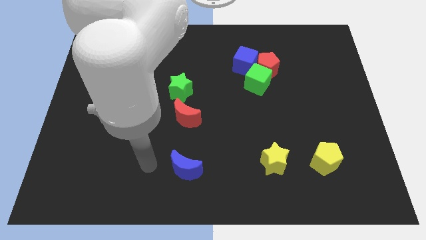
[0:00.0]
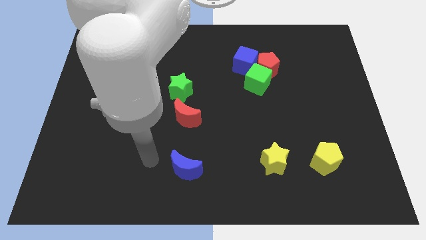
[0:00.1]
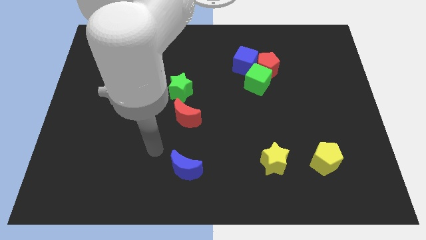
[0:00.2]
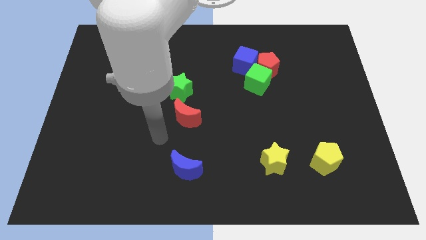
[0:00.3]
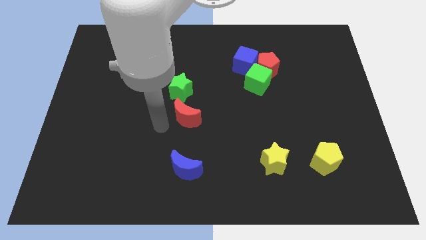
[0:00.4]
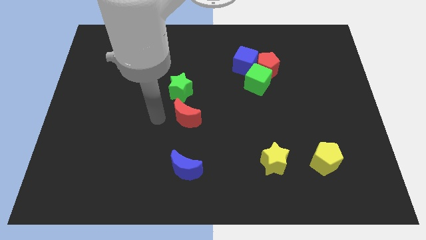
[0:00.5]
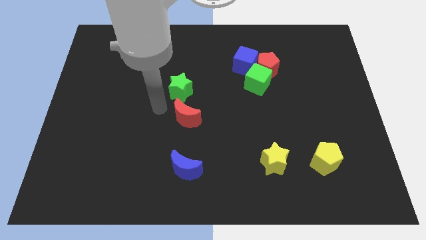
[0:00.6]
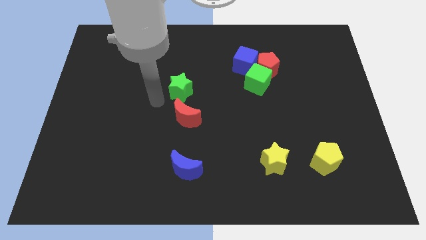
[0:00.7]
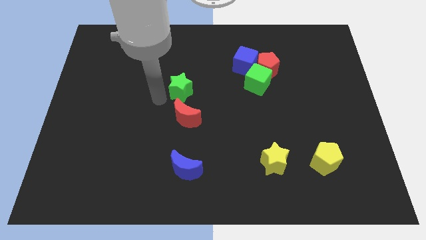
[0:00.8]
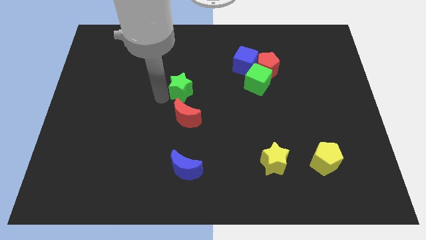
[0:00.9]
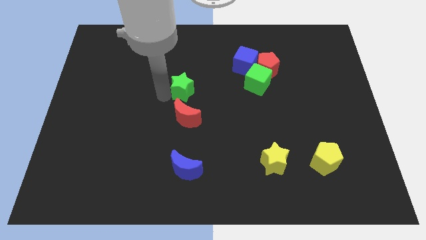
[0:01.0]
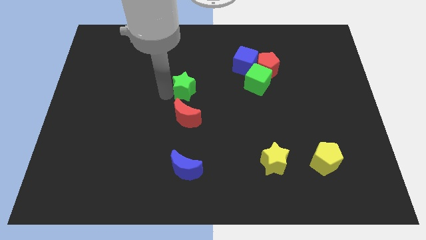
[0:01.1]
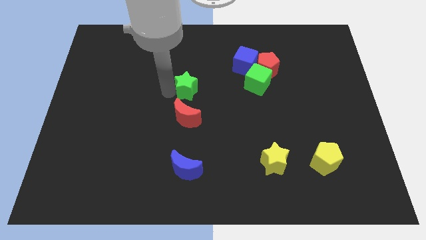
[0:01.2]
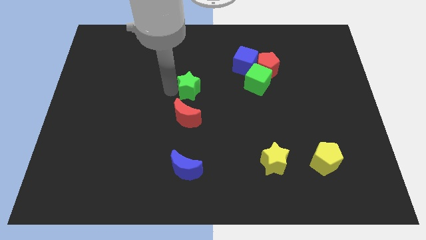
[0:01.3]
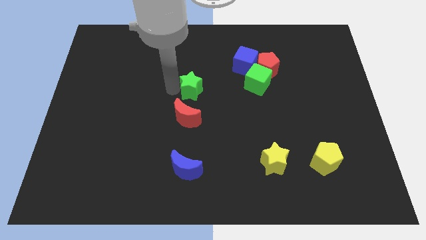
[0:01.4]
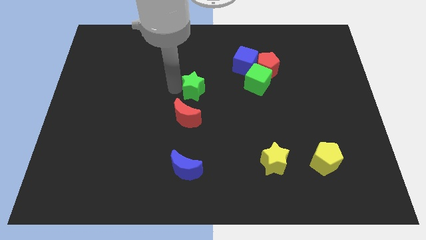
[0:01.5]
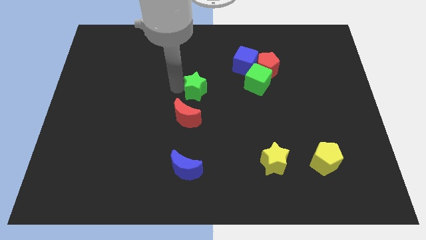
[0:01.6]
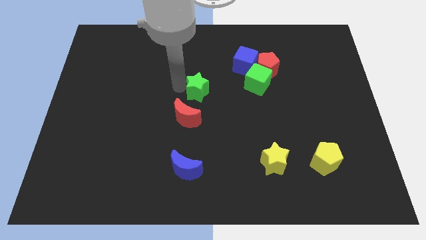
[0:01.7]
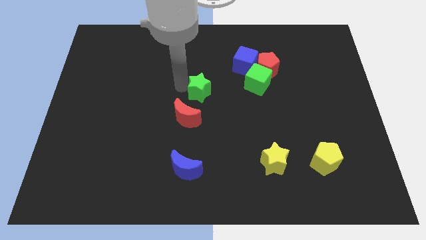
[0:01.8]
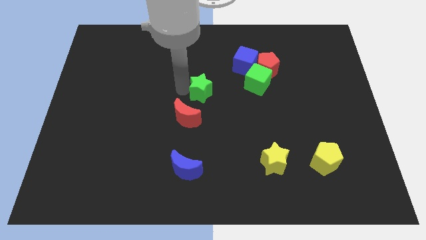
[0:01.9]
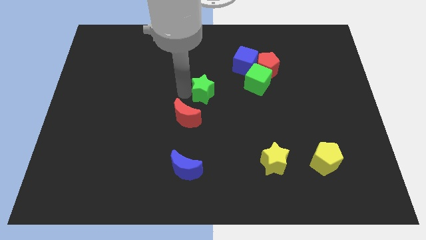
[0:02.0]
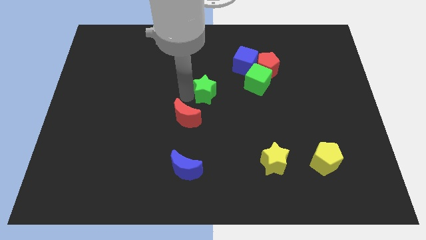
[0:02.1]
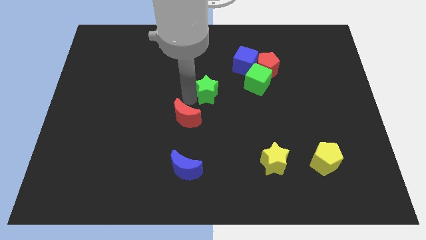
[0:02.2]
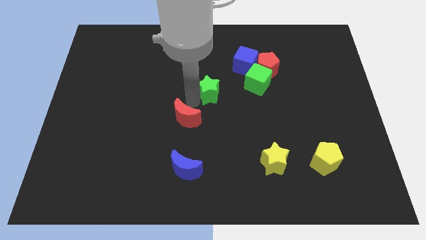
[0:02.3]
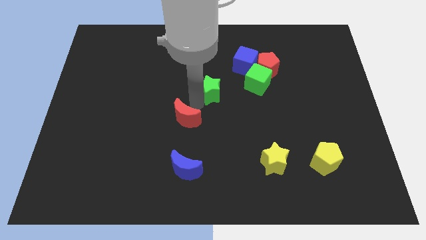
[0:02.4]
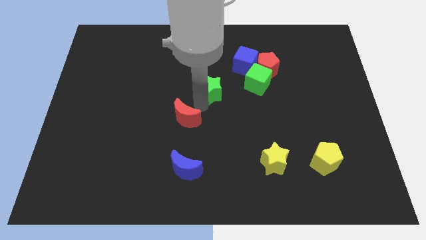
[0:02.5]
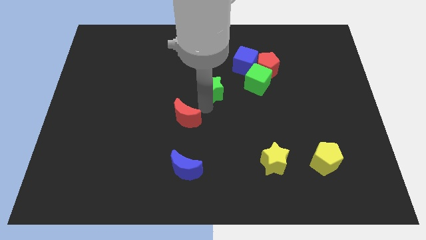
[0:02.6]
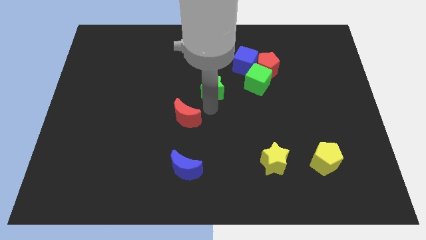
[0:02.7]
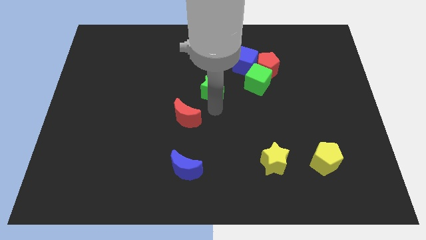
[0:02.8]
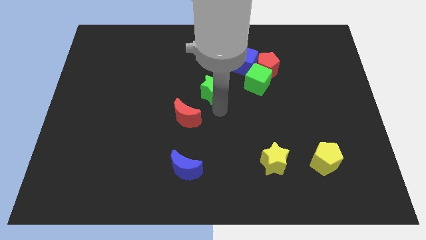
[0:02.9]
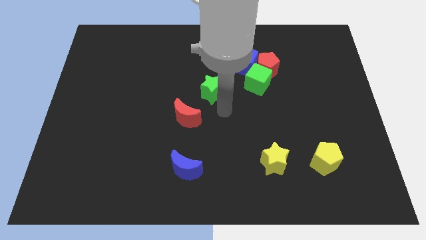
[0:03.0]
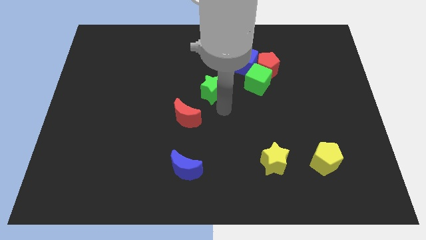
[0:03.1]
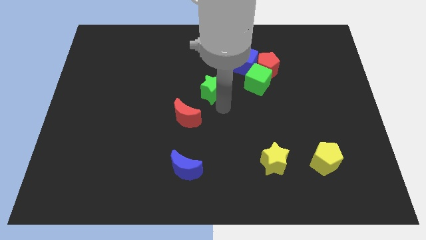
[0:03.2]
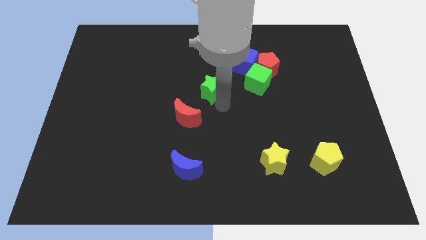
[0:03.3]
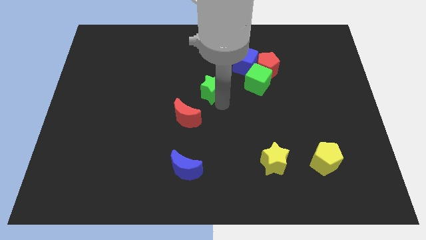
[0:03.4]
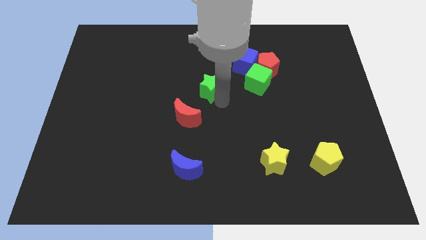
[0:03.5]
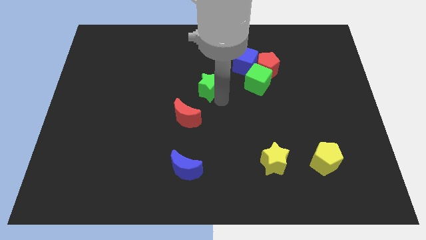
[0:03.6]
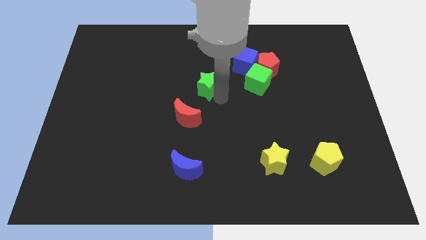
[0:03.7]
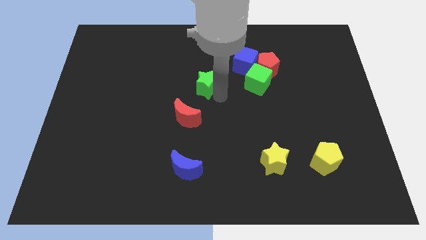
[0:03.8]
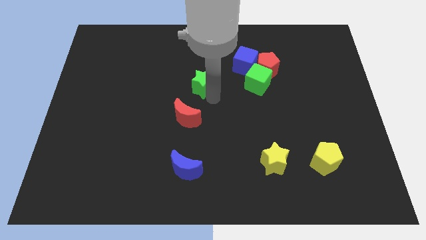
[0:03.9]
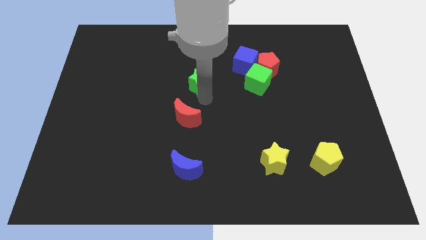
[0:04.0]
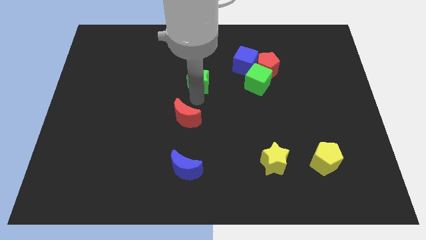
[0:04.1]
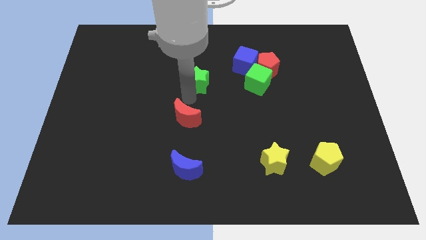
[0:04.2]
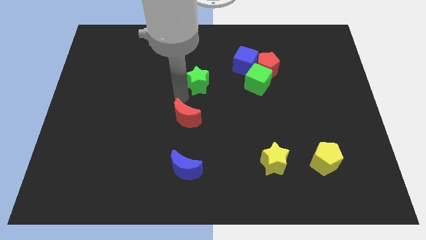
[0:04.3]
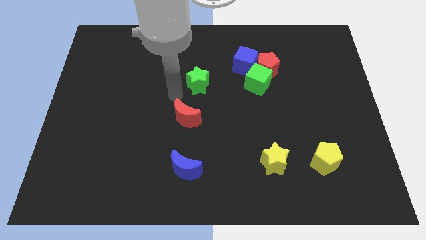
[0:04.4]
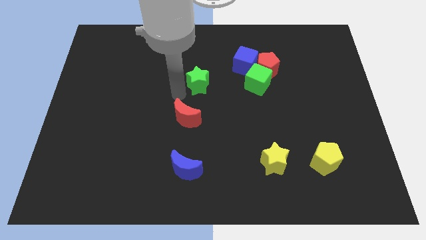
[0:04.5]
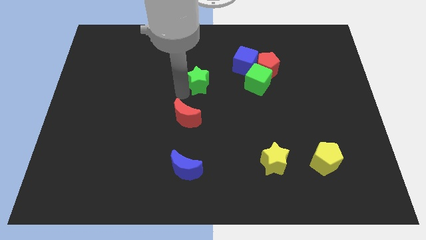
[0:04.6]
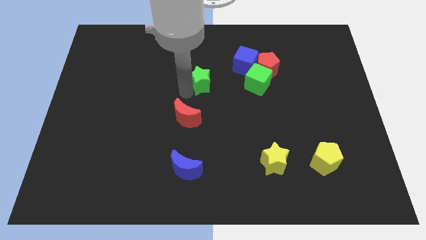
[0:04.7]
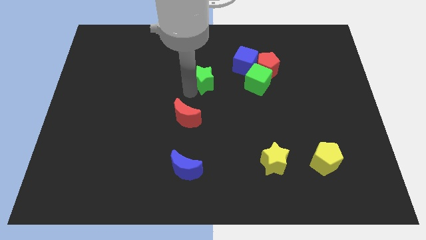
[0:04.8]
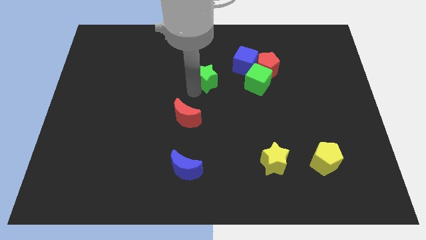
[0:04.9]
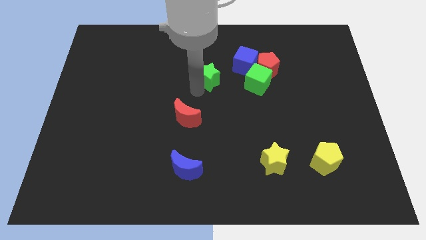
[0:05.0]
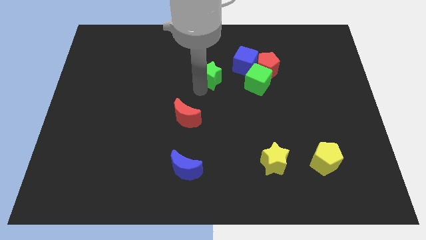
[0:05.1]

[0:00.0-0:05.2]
slide the green star left of the red pentagon

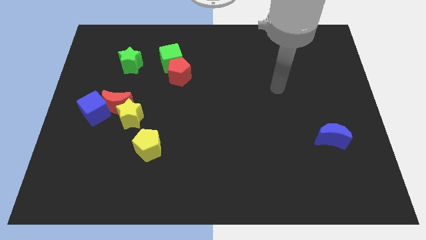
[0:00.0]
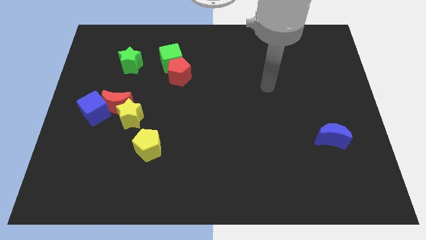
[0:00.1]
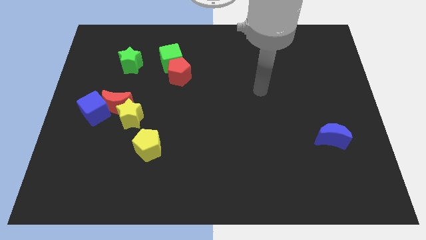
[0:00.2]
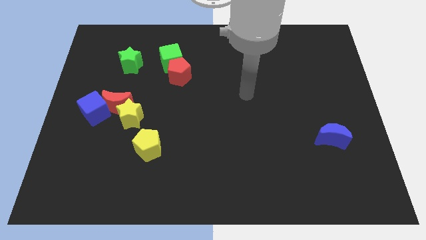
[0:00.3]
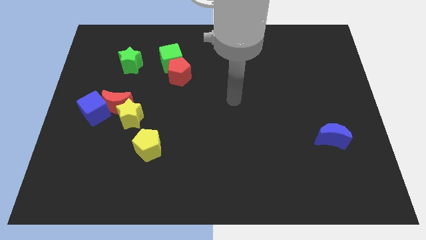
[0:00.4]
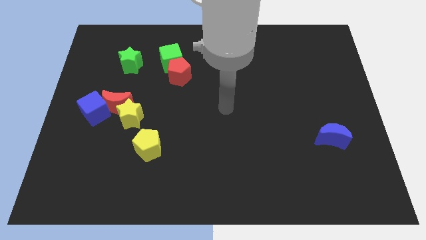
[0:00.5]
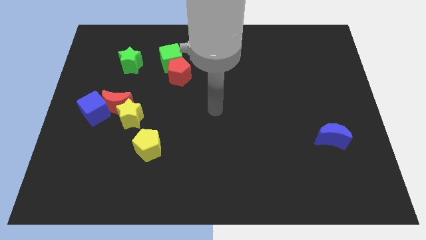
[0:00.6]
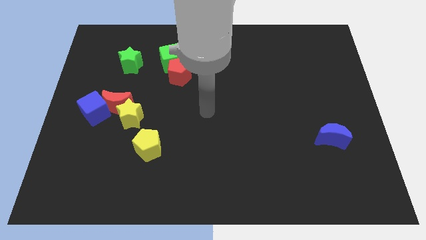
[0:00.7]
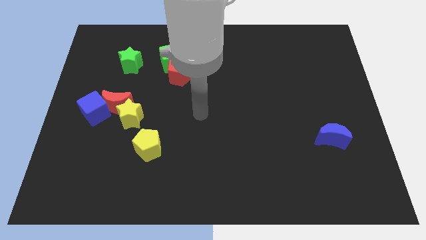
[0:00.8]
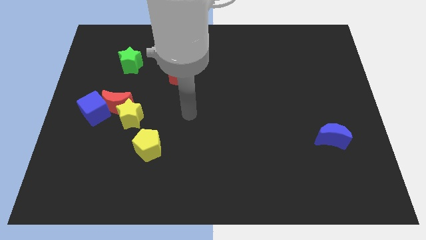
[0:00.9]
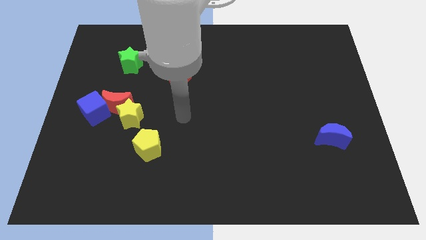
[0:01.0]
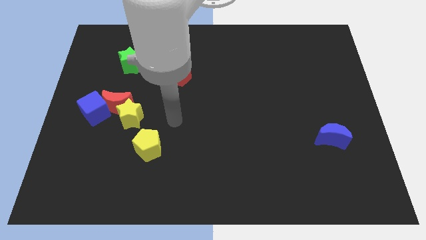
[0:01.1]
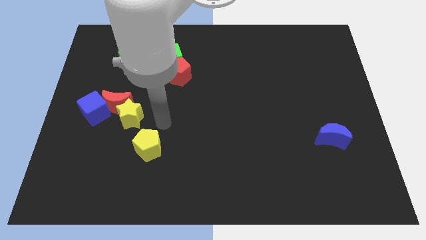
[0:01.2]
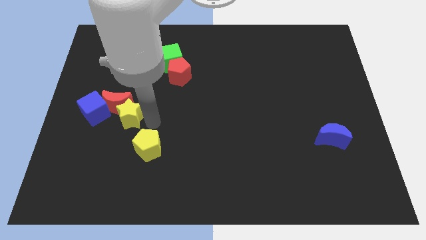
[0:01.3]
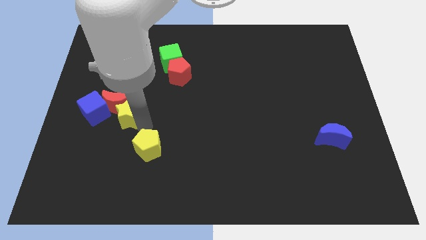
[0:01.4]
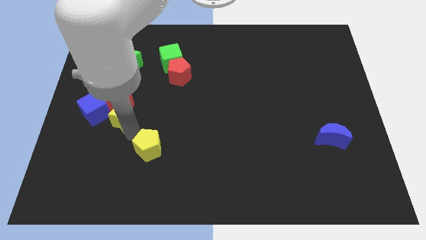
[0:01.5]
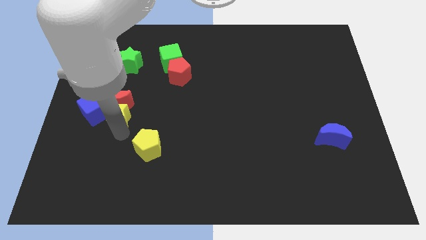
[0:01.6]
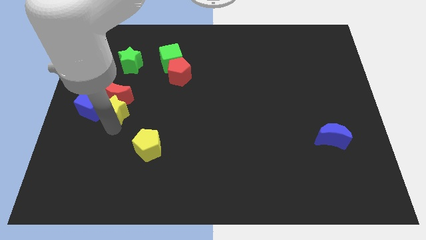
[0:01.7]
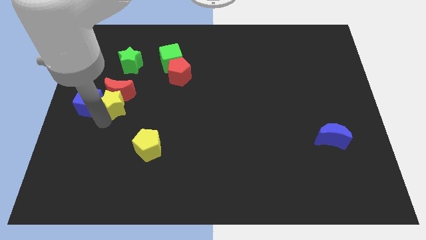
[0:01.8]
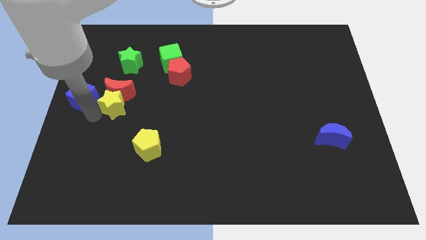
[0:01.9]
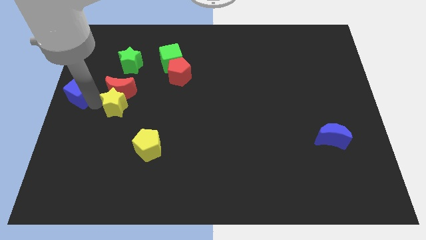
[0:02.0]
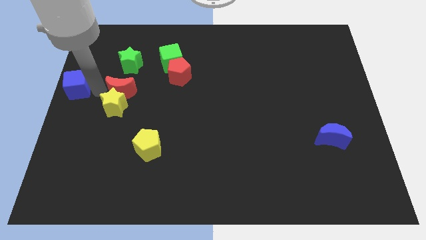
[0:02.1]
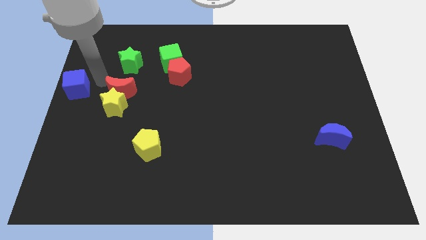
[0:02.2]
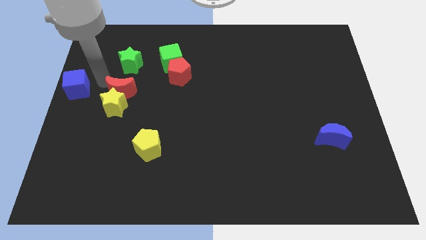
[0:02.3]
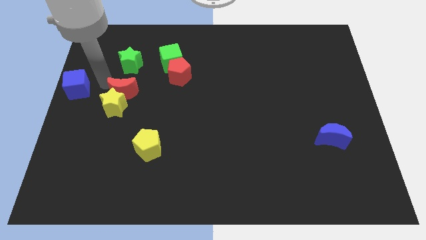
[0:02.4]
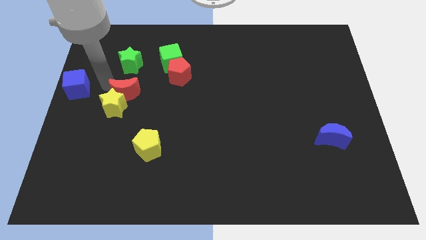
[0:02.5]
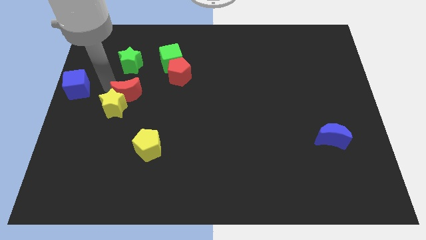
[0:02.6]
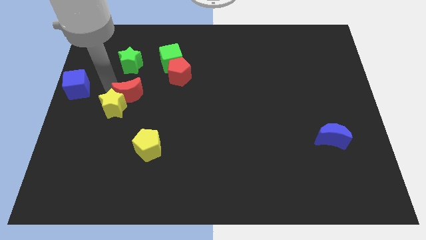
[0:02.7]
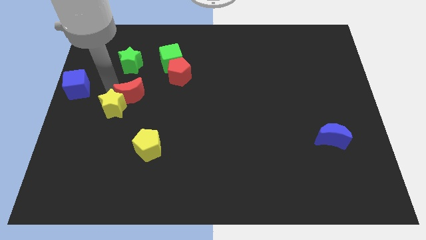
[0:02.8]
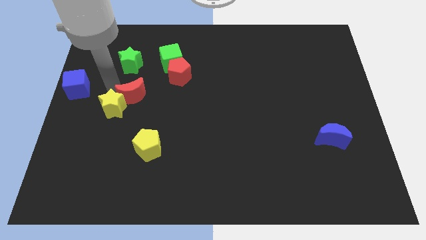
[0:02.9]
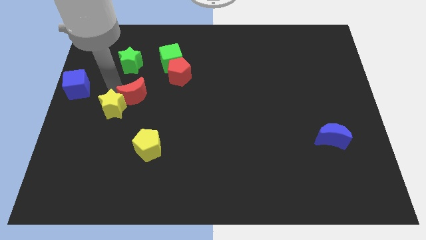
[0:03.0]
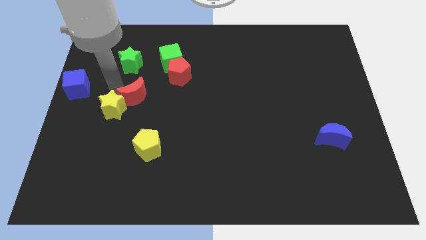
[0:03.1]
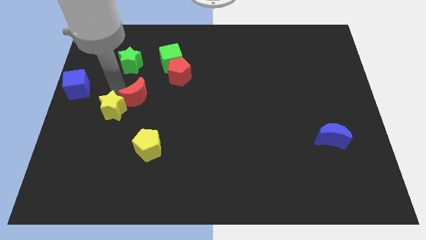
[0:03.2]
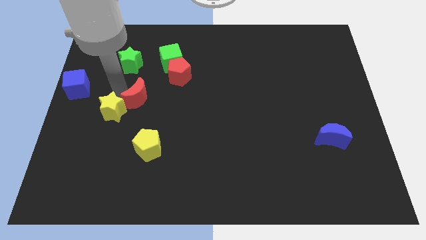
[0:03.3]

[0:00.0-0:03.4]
push the red moon to the top of the yellow pentagon
